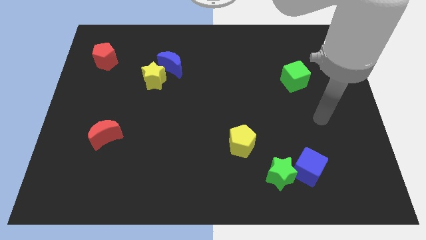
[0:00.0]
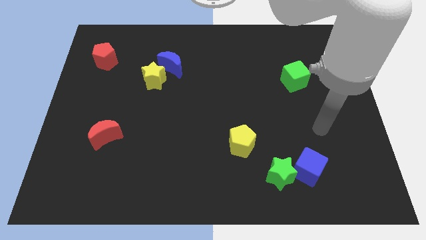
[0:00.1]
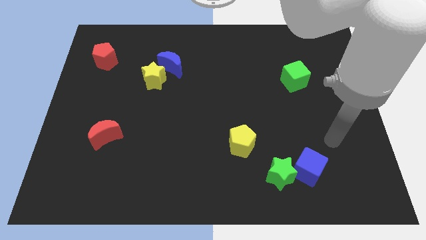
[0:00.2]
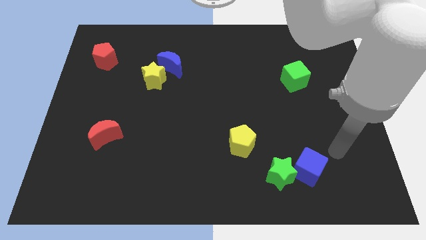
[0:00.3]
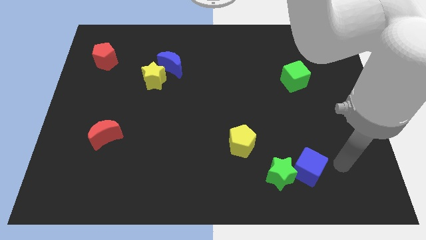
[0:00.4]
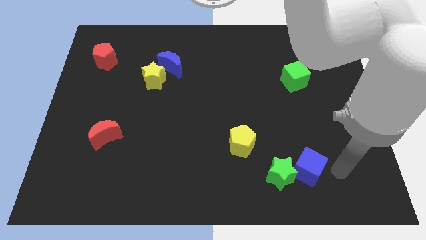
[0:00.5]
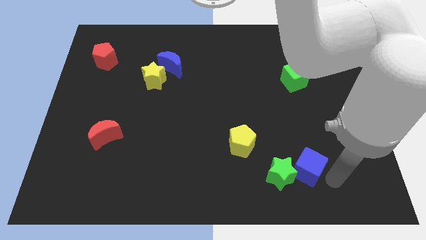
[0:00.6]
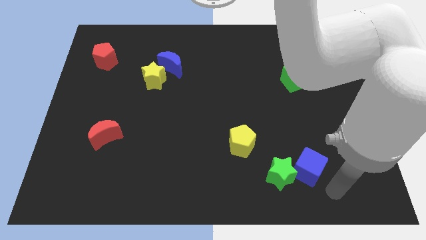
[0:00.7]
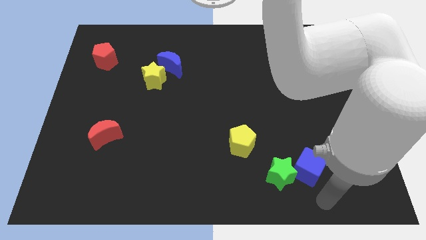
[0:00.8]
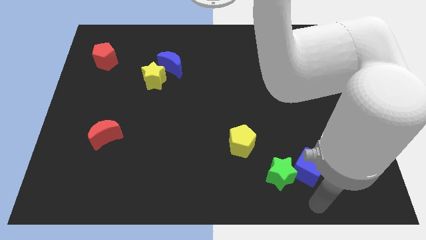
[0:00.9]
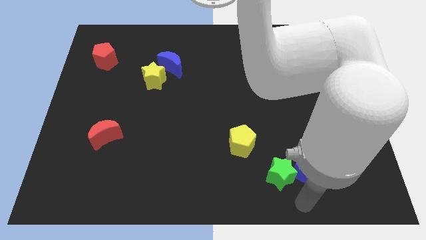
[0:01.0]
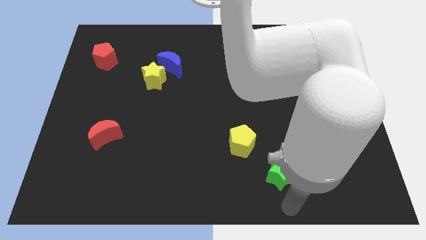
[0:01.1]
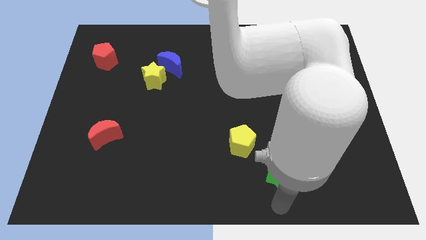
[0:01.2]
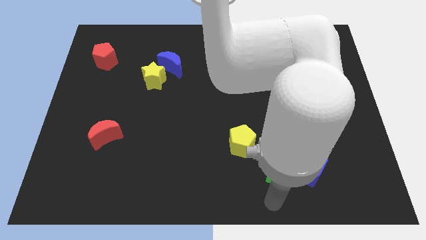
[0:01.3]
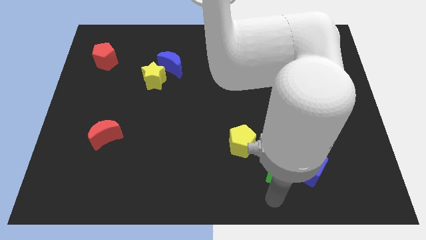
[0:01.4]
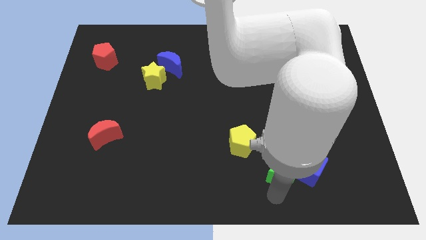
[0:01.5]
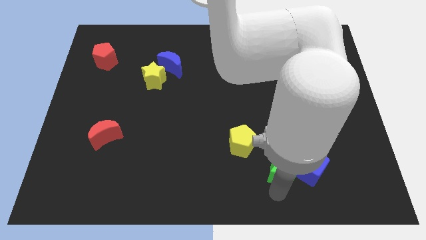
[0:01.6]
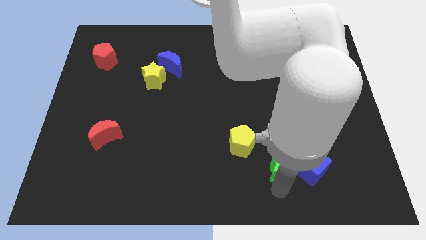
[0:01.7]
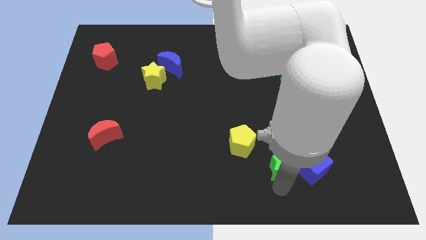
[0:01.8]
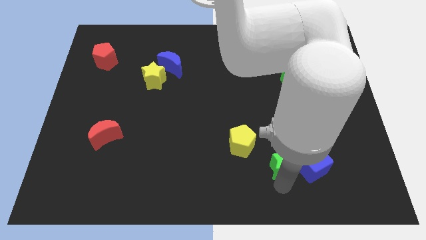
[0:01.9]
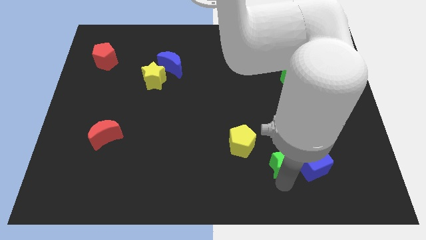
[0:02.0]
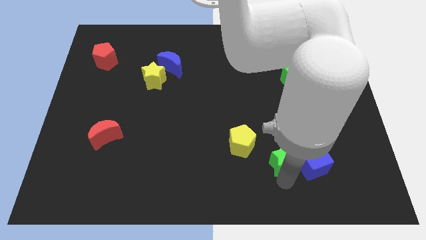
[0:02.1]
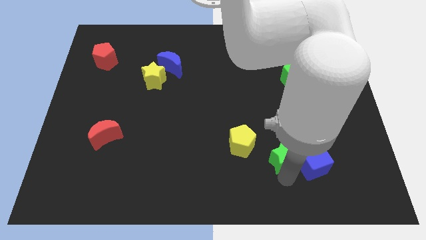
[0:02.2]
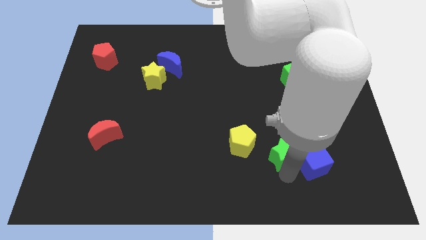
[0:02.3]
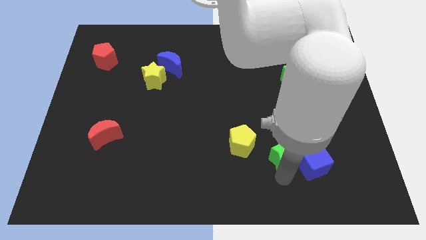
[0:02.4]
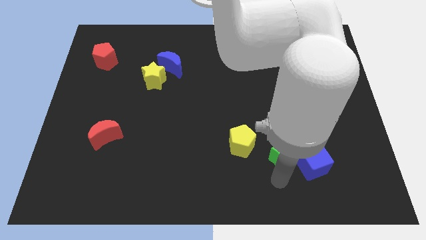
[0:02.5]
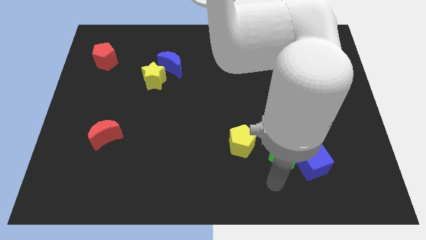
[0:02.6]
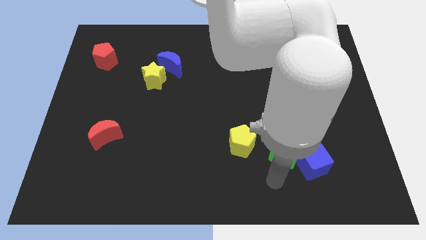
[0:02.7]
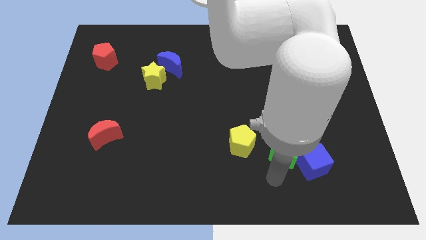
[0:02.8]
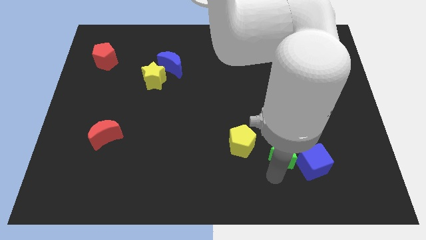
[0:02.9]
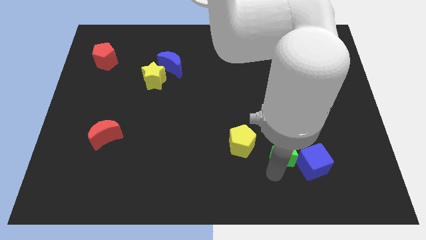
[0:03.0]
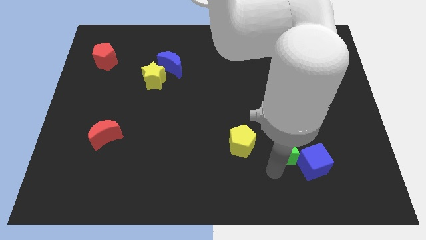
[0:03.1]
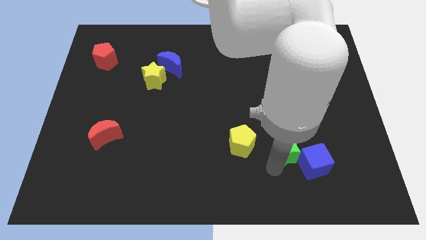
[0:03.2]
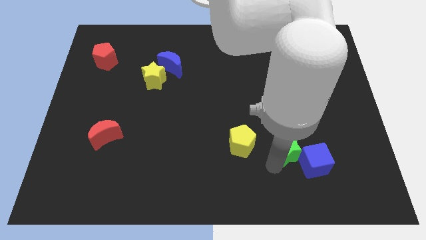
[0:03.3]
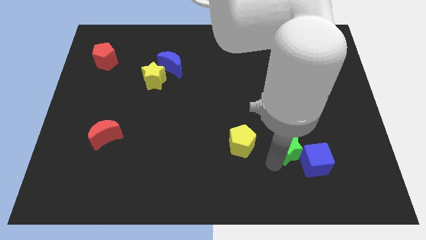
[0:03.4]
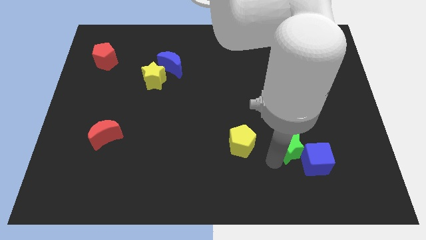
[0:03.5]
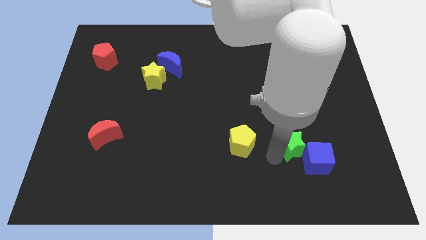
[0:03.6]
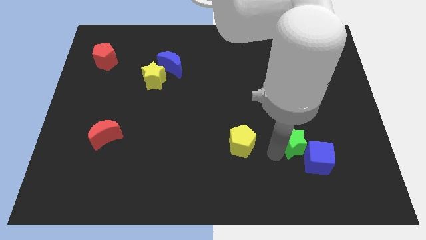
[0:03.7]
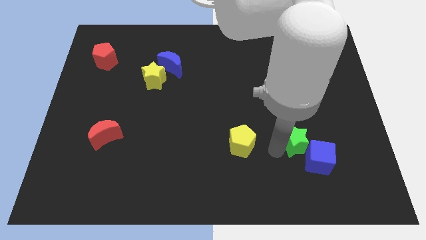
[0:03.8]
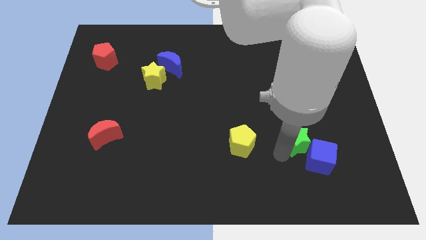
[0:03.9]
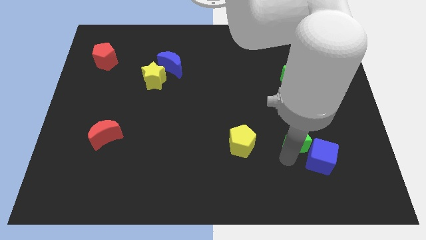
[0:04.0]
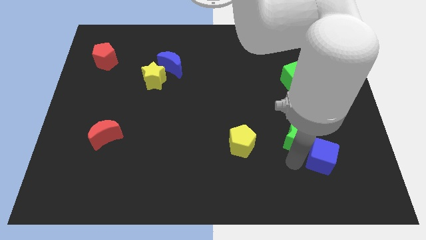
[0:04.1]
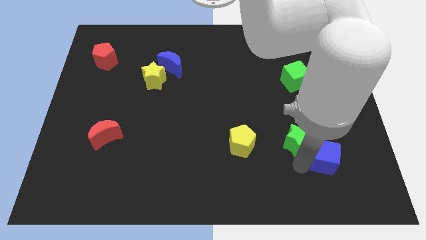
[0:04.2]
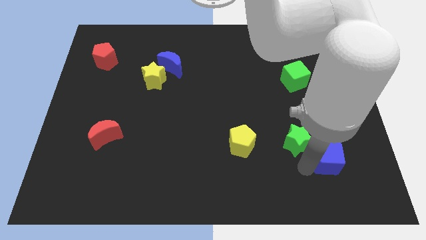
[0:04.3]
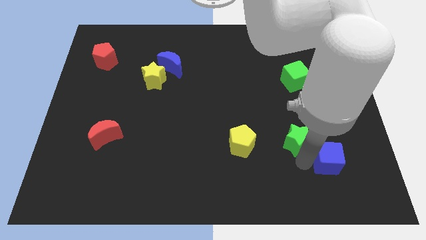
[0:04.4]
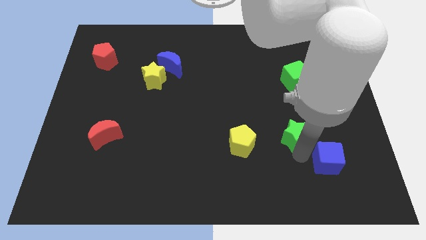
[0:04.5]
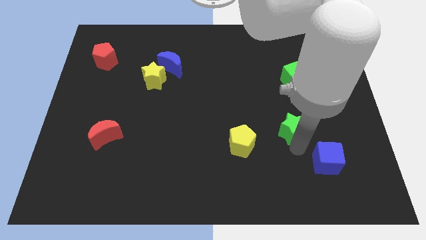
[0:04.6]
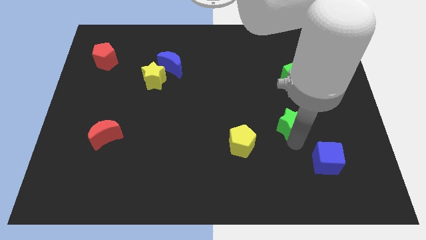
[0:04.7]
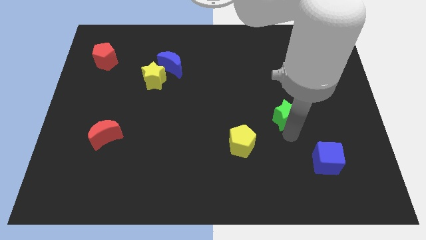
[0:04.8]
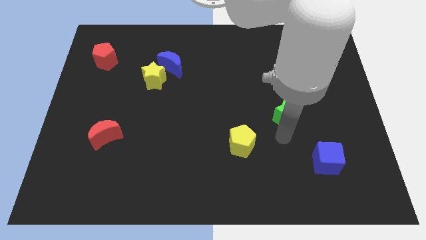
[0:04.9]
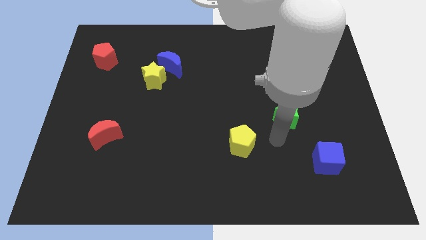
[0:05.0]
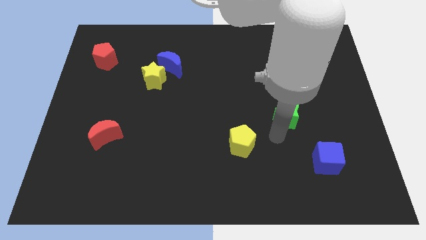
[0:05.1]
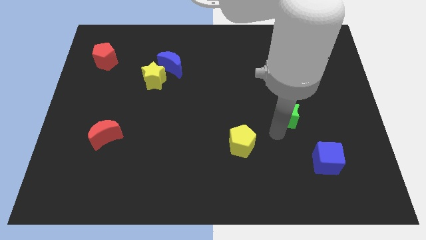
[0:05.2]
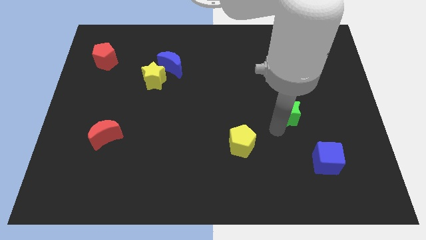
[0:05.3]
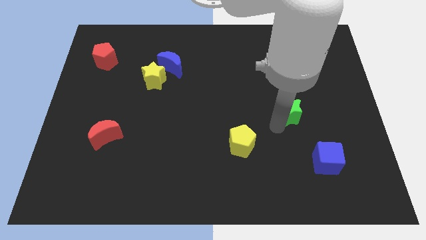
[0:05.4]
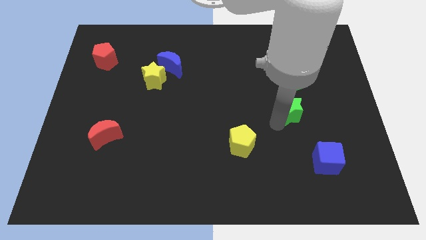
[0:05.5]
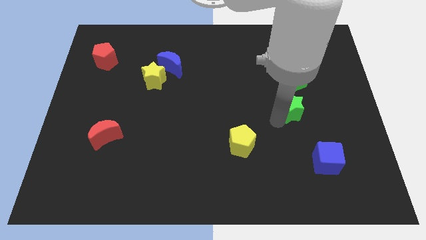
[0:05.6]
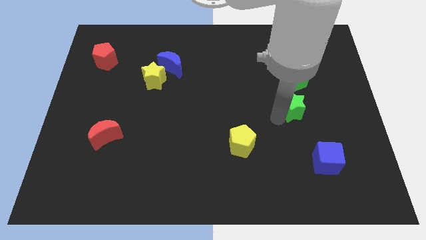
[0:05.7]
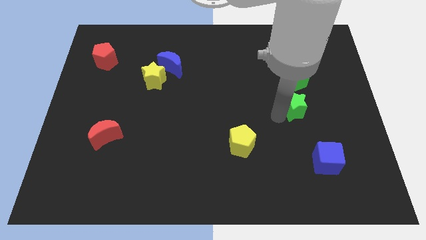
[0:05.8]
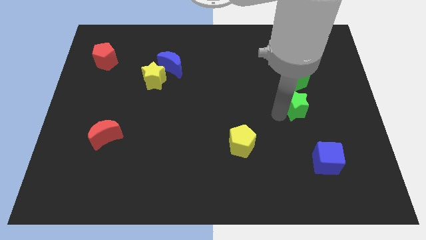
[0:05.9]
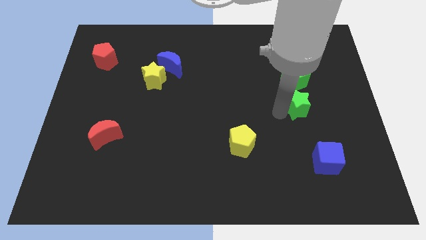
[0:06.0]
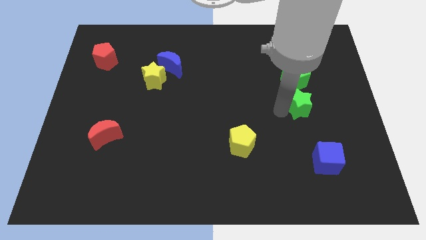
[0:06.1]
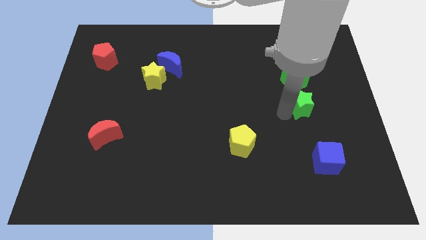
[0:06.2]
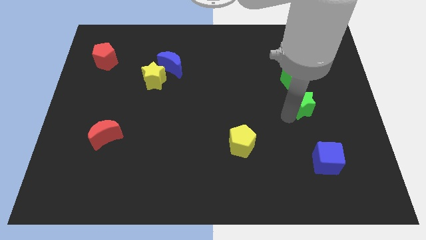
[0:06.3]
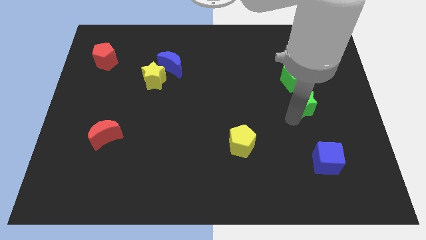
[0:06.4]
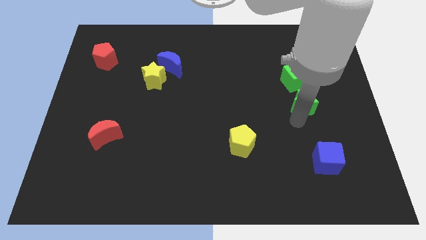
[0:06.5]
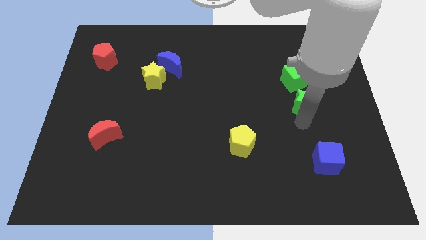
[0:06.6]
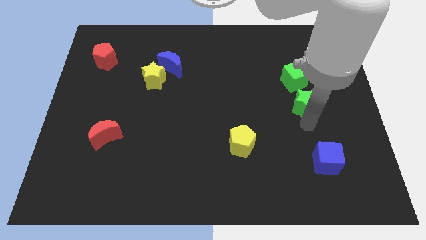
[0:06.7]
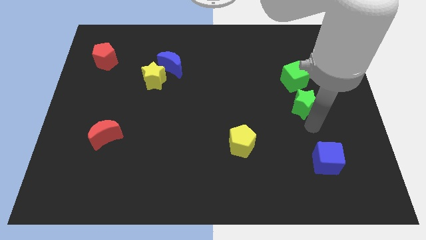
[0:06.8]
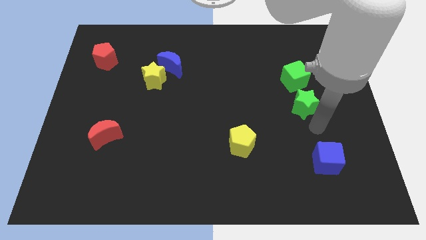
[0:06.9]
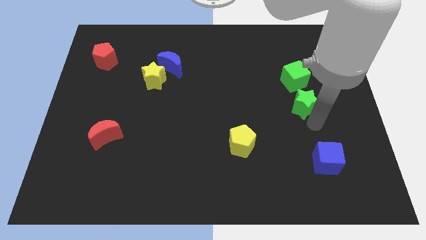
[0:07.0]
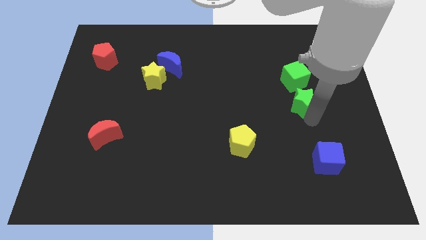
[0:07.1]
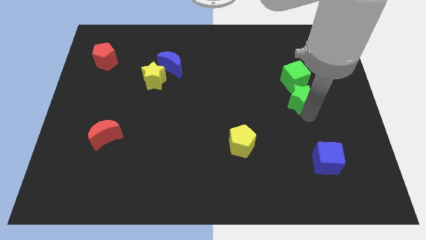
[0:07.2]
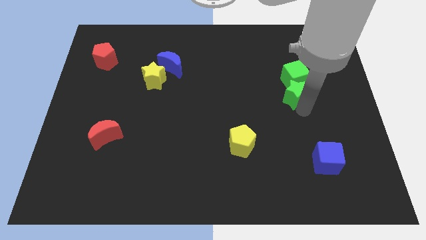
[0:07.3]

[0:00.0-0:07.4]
put the green star next to the green cube
